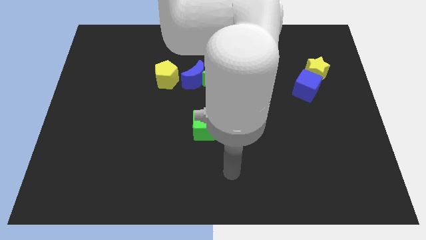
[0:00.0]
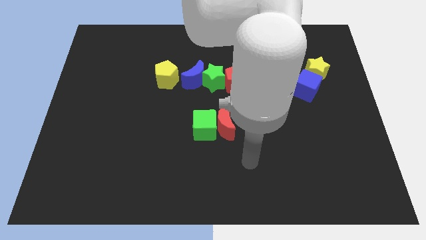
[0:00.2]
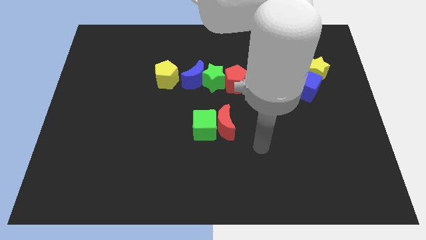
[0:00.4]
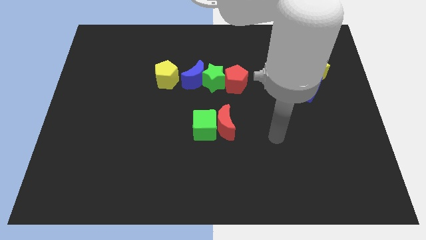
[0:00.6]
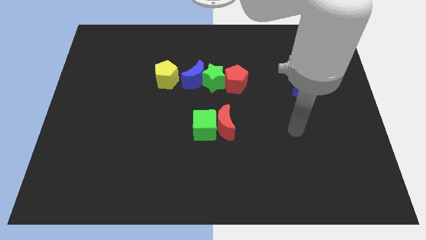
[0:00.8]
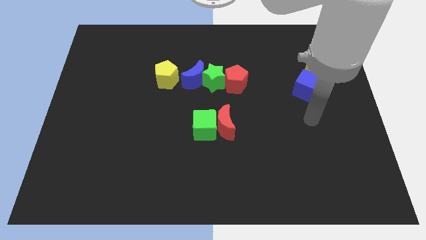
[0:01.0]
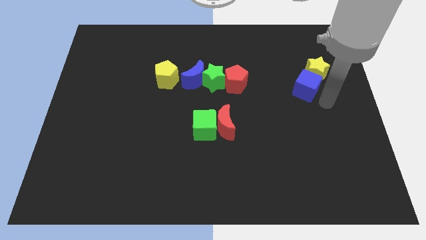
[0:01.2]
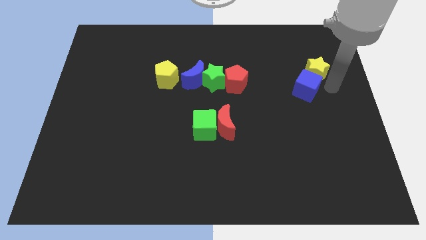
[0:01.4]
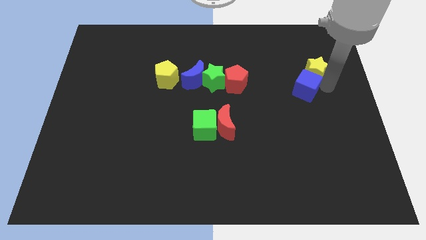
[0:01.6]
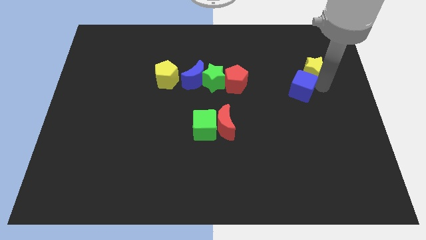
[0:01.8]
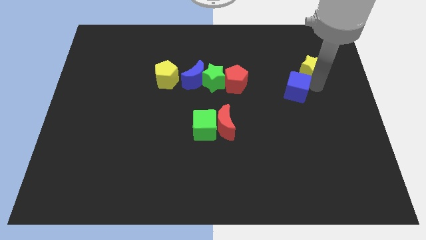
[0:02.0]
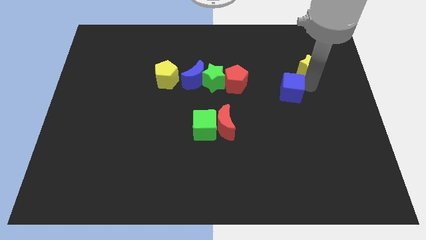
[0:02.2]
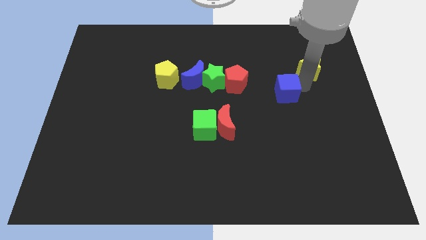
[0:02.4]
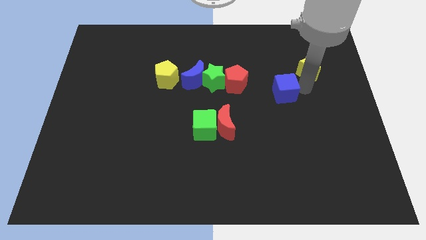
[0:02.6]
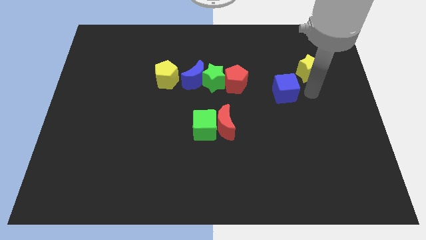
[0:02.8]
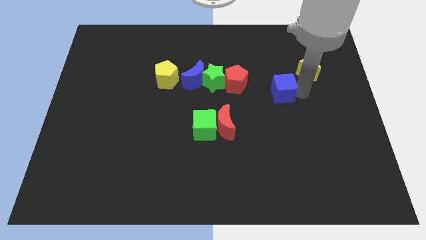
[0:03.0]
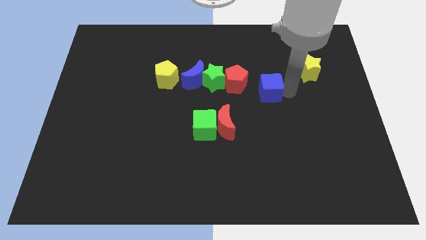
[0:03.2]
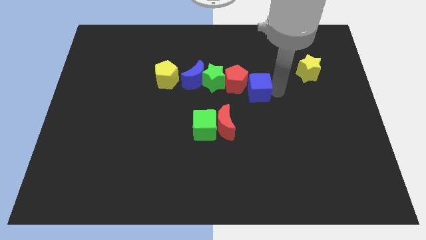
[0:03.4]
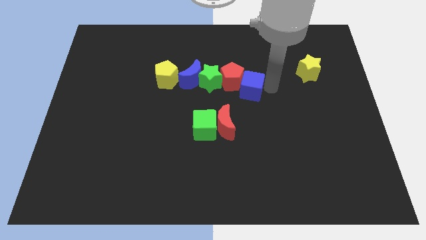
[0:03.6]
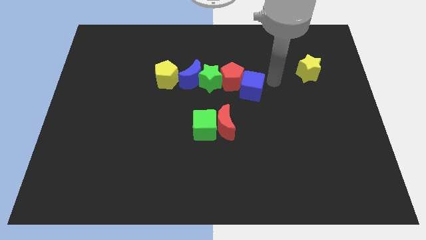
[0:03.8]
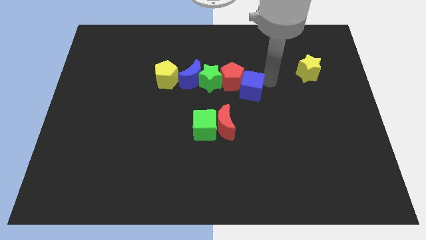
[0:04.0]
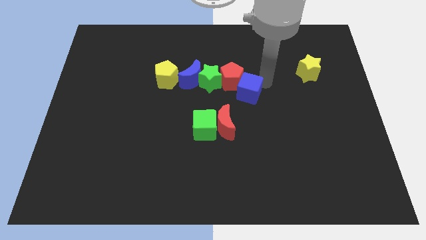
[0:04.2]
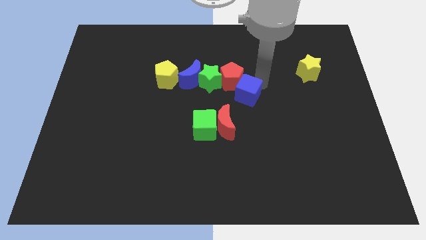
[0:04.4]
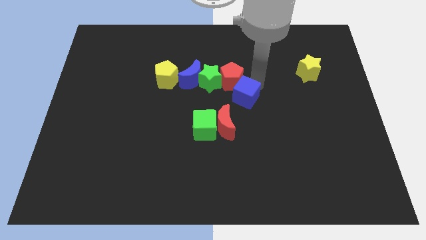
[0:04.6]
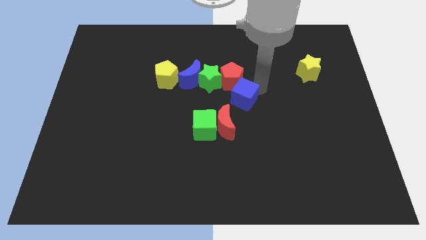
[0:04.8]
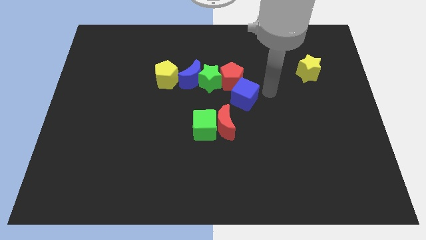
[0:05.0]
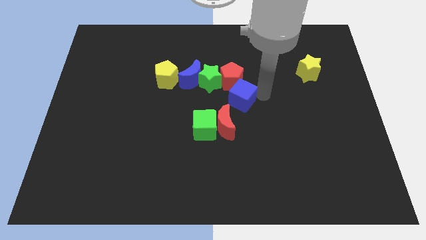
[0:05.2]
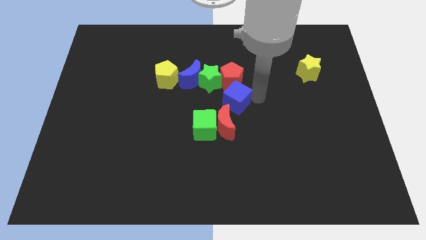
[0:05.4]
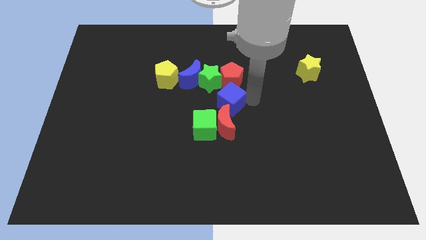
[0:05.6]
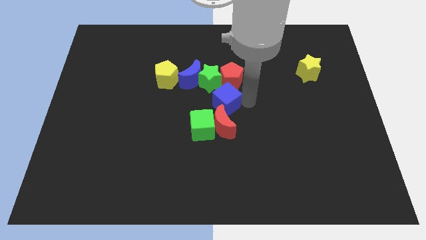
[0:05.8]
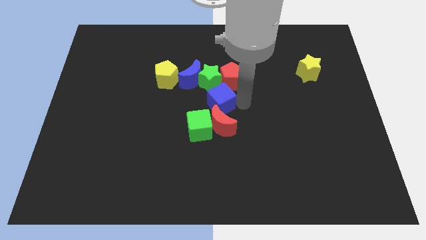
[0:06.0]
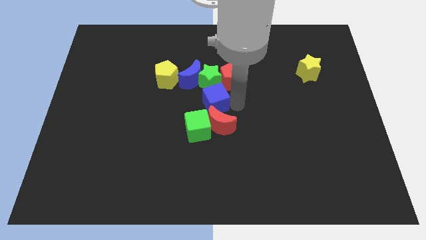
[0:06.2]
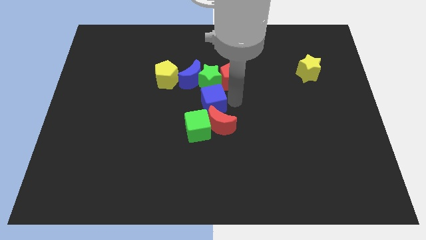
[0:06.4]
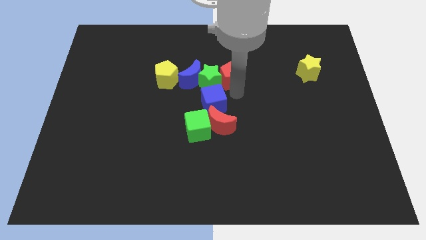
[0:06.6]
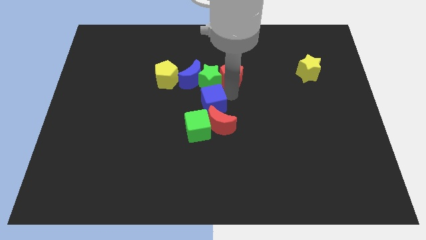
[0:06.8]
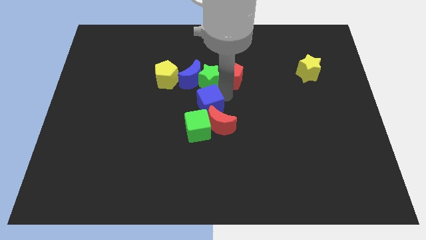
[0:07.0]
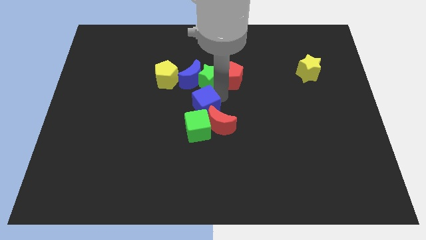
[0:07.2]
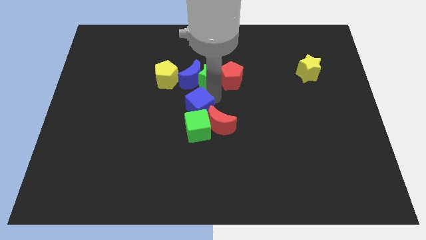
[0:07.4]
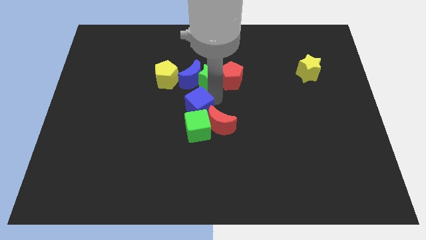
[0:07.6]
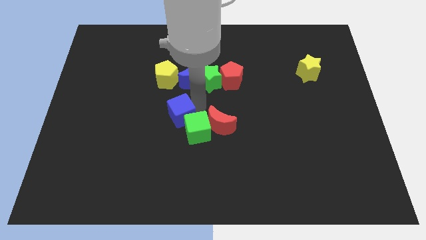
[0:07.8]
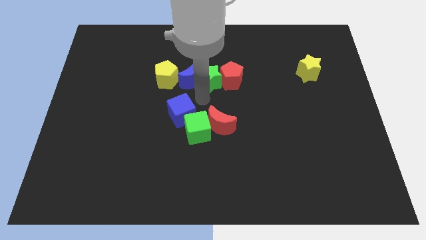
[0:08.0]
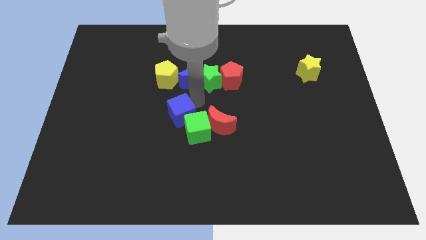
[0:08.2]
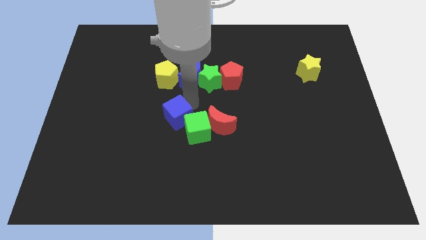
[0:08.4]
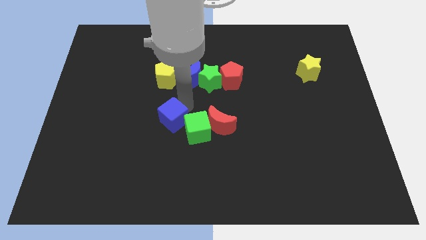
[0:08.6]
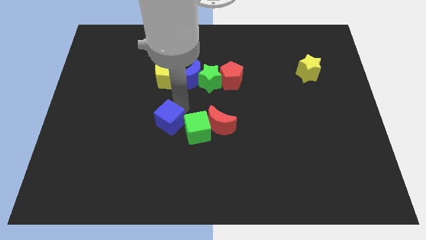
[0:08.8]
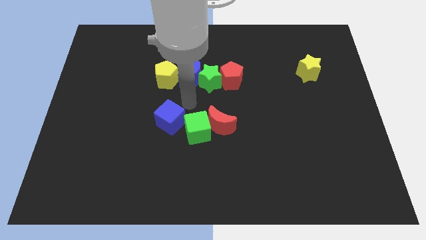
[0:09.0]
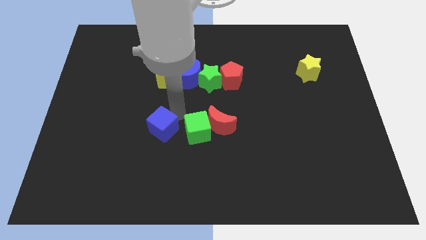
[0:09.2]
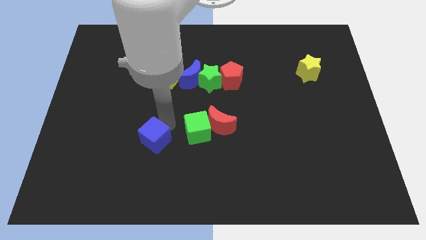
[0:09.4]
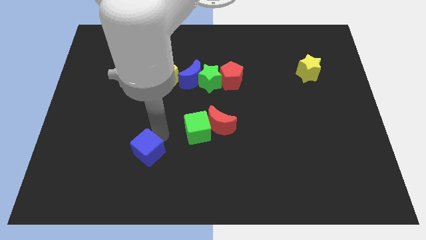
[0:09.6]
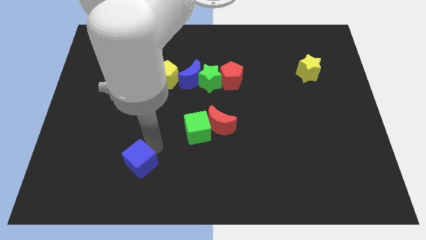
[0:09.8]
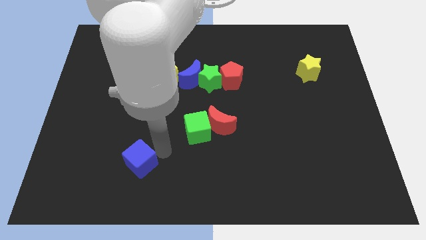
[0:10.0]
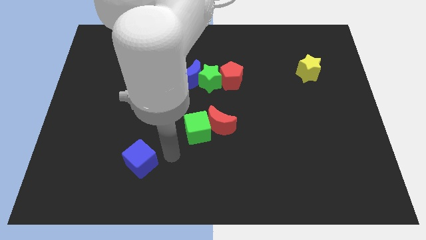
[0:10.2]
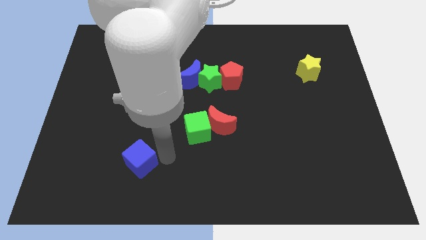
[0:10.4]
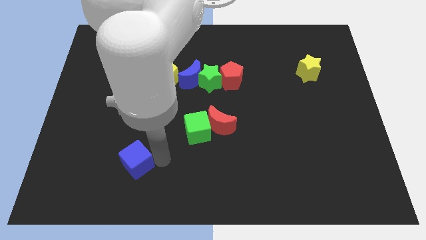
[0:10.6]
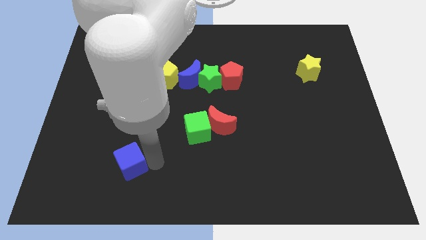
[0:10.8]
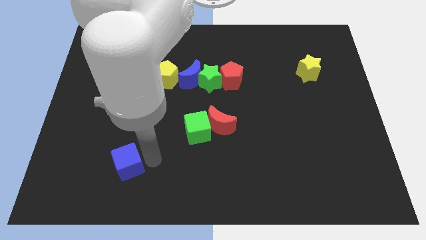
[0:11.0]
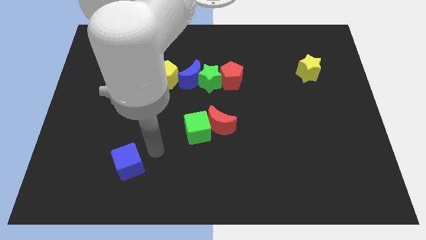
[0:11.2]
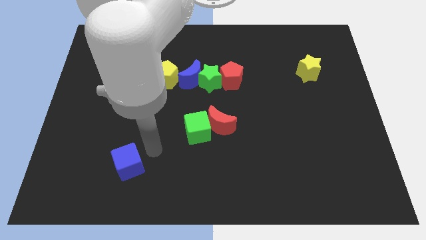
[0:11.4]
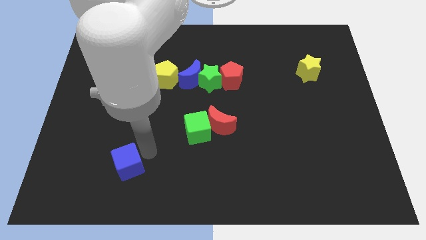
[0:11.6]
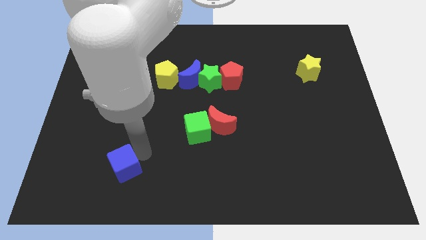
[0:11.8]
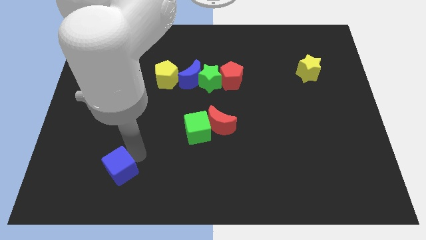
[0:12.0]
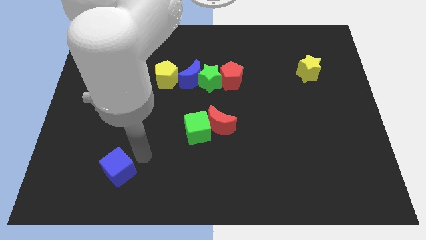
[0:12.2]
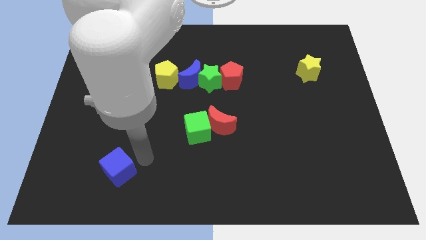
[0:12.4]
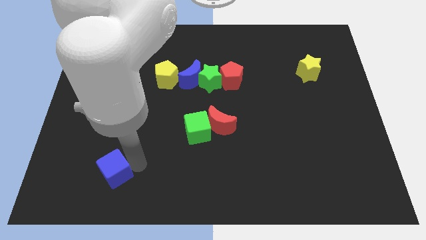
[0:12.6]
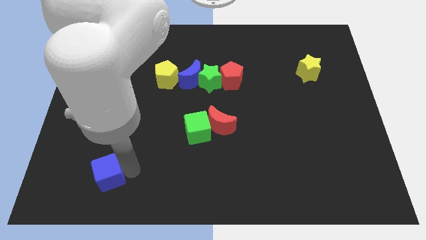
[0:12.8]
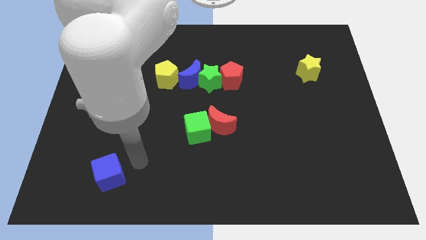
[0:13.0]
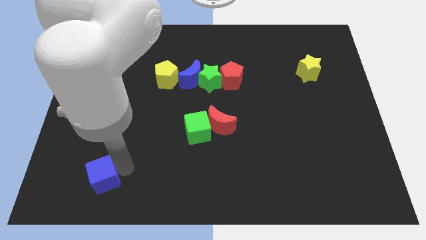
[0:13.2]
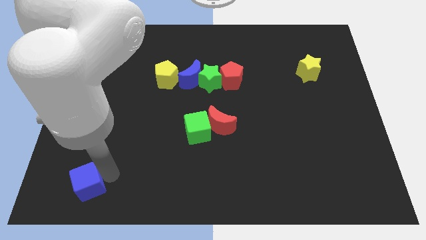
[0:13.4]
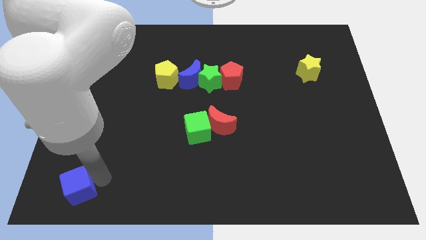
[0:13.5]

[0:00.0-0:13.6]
put the blue cube to the bottom left corner
